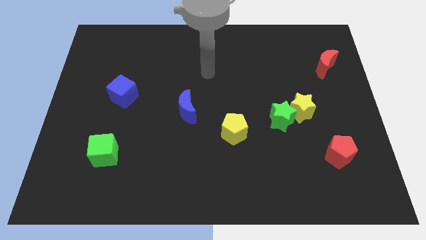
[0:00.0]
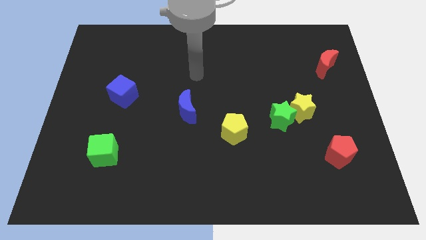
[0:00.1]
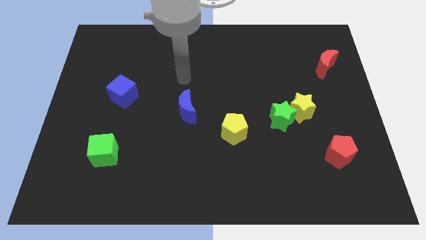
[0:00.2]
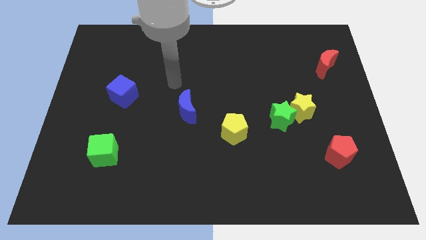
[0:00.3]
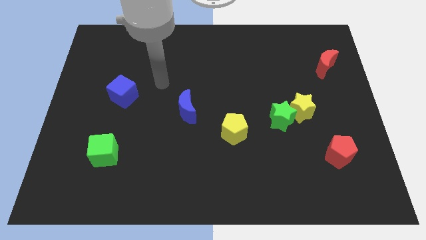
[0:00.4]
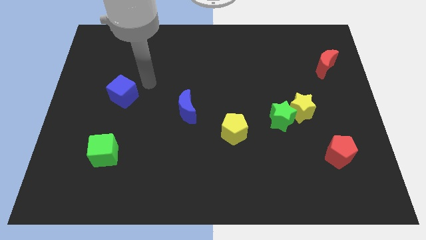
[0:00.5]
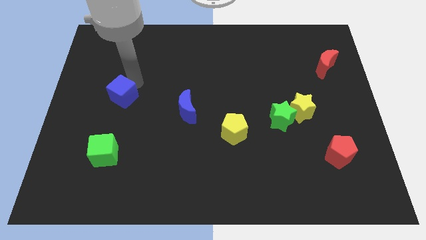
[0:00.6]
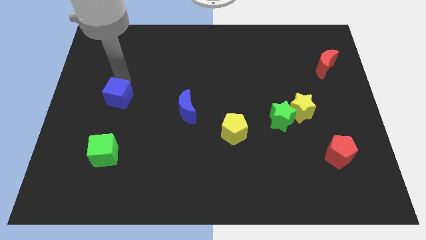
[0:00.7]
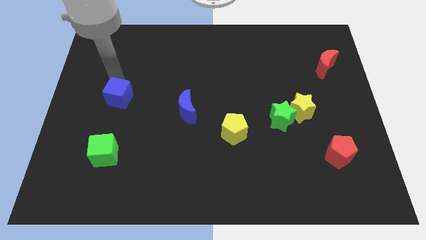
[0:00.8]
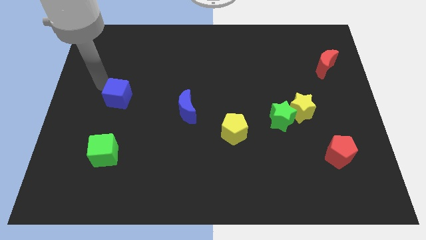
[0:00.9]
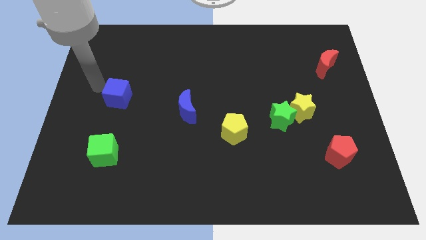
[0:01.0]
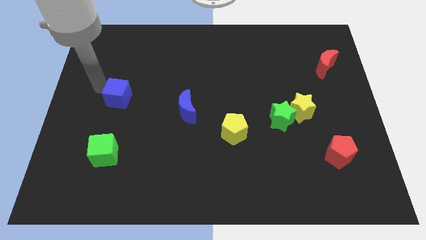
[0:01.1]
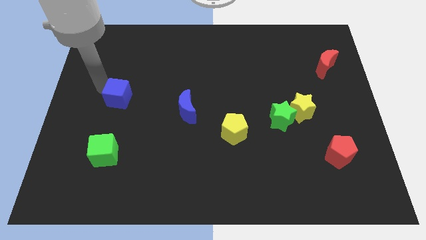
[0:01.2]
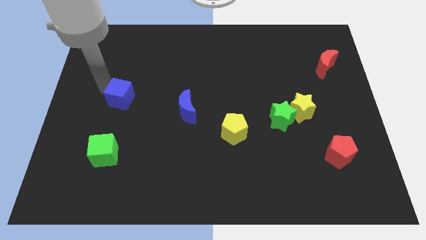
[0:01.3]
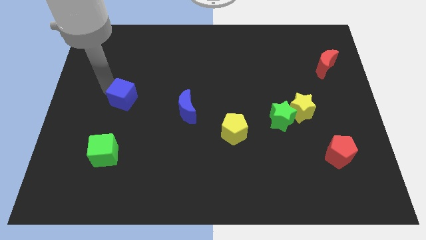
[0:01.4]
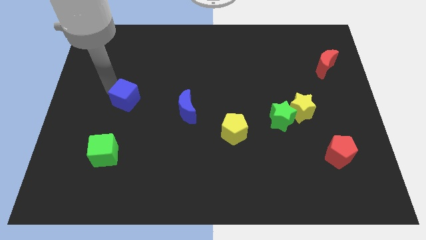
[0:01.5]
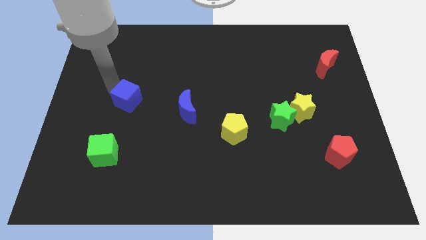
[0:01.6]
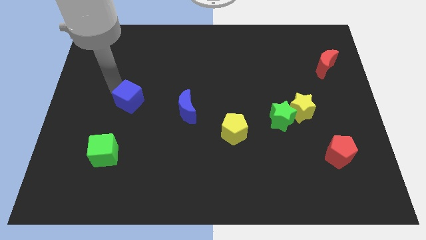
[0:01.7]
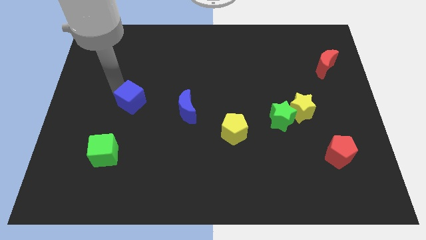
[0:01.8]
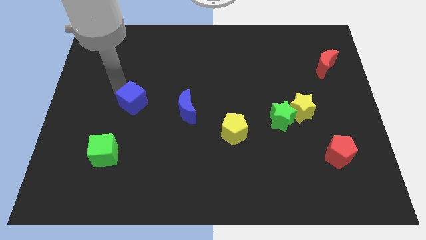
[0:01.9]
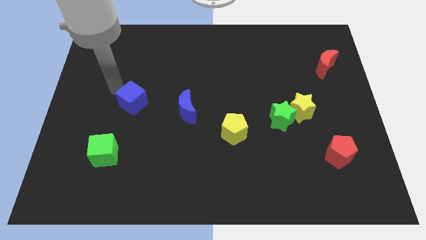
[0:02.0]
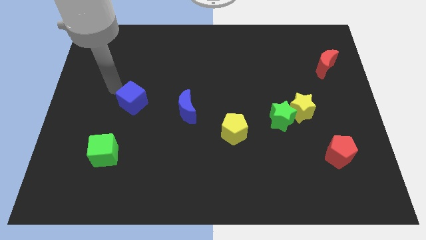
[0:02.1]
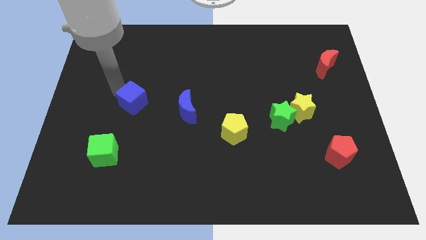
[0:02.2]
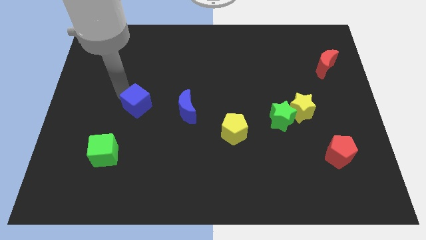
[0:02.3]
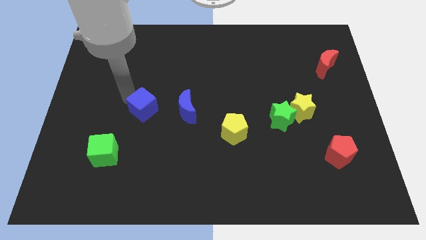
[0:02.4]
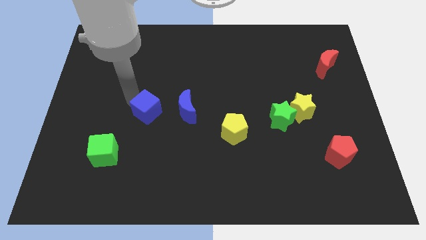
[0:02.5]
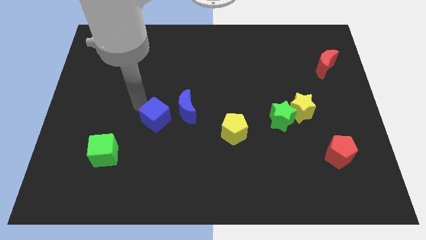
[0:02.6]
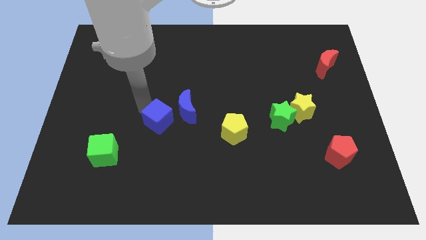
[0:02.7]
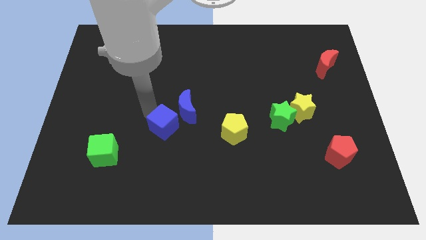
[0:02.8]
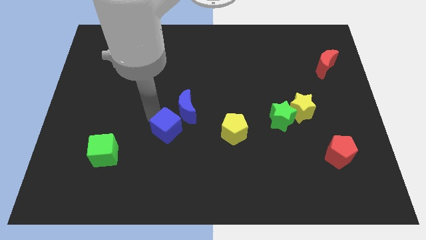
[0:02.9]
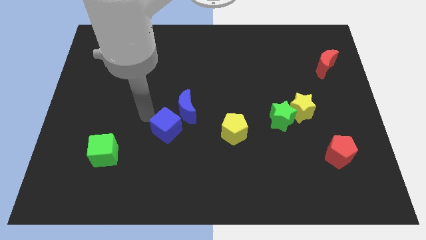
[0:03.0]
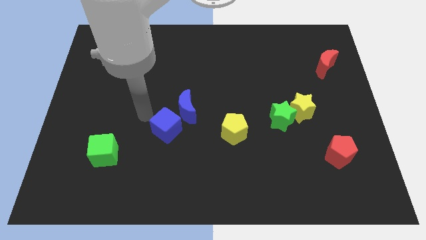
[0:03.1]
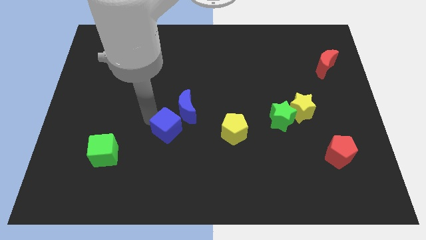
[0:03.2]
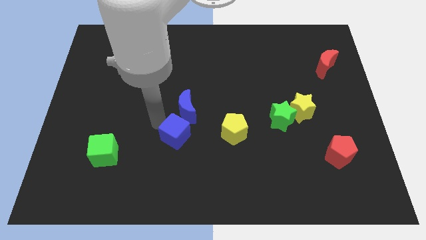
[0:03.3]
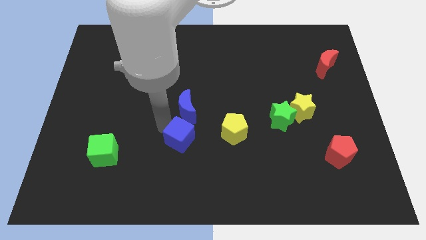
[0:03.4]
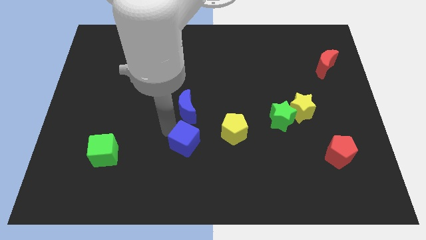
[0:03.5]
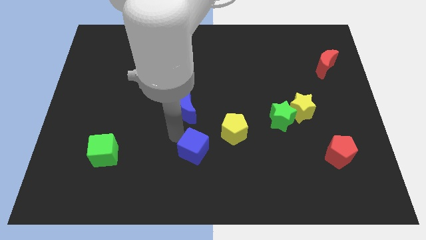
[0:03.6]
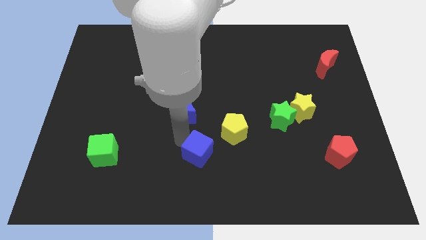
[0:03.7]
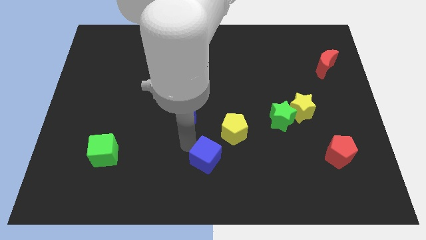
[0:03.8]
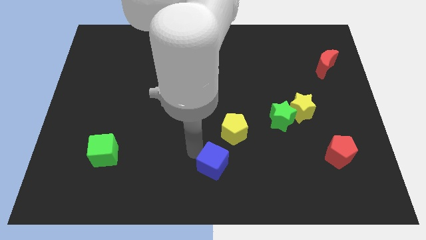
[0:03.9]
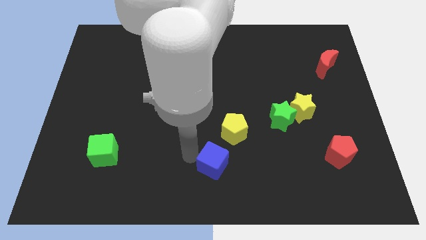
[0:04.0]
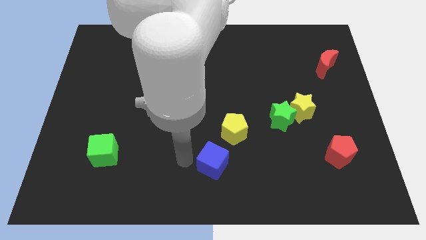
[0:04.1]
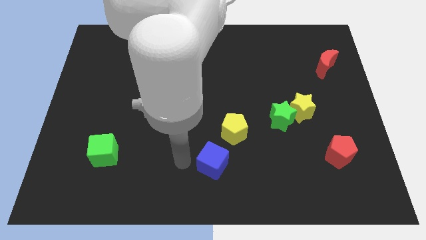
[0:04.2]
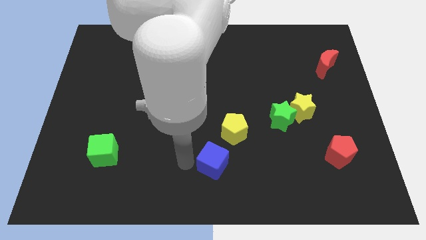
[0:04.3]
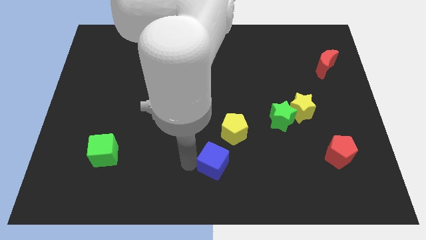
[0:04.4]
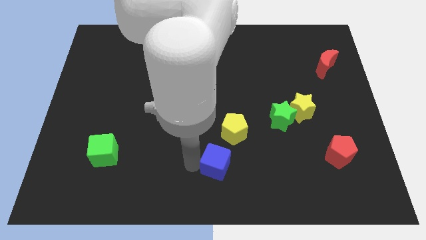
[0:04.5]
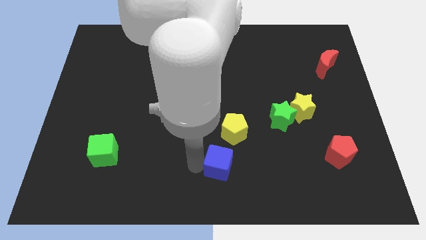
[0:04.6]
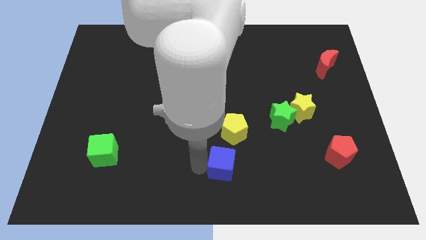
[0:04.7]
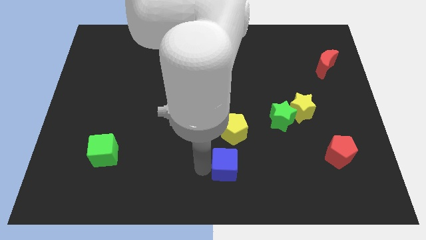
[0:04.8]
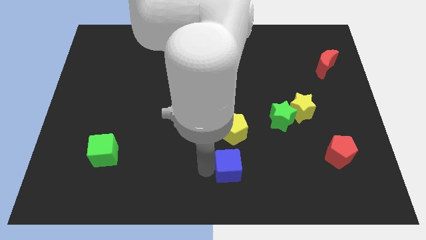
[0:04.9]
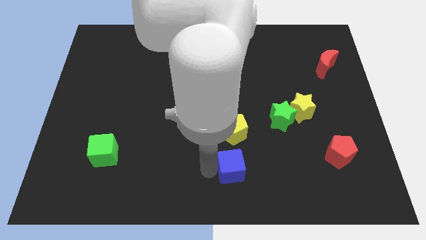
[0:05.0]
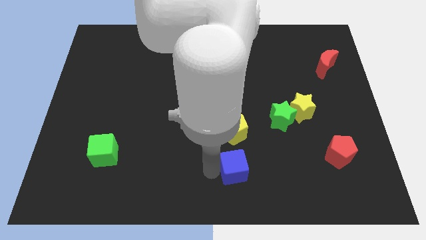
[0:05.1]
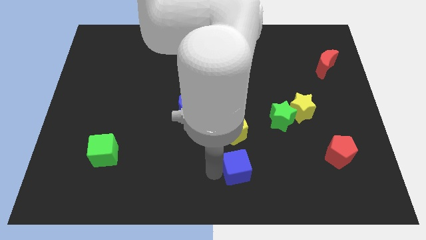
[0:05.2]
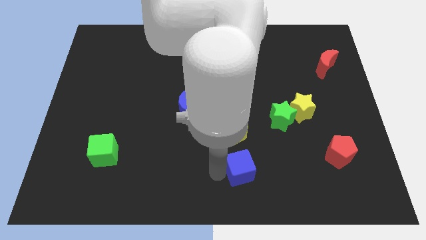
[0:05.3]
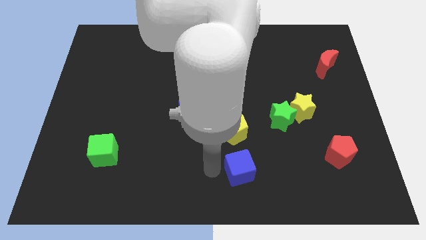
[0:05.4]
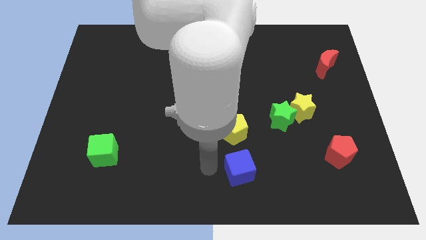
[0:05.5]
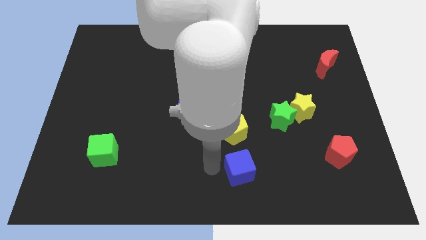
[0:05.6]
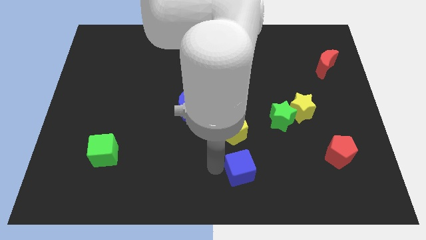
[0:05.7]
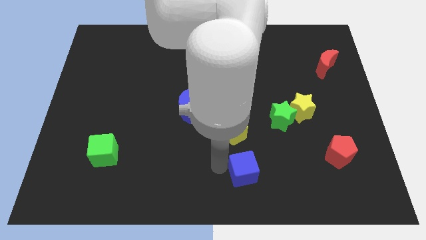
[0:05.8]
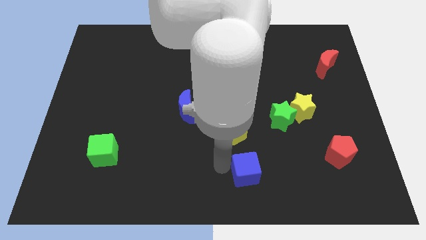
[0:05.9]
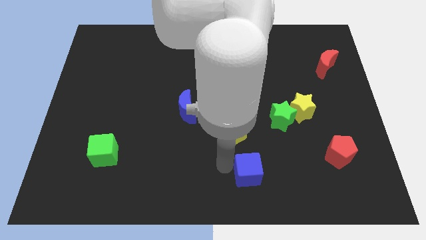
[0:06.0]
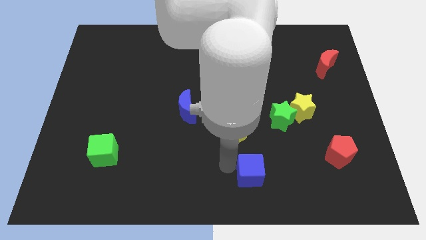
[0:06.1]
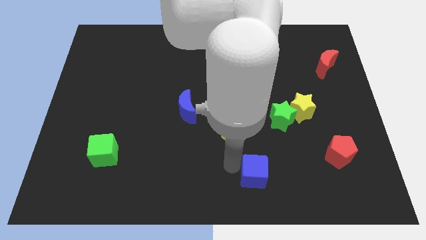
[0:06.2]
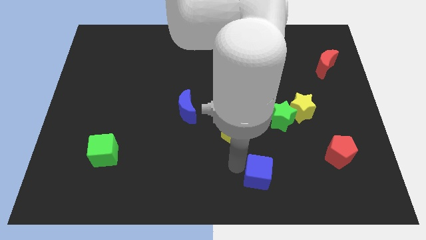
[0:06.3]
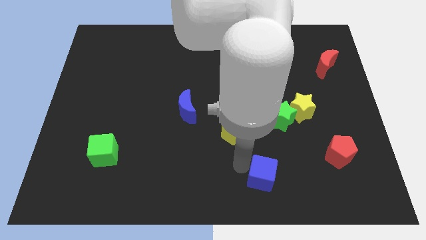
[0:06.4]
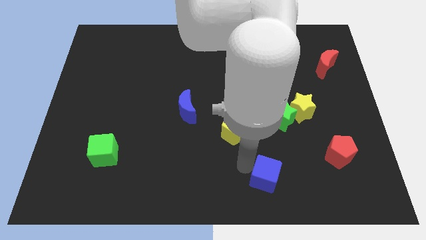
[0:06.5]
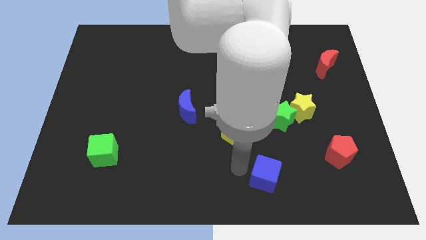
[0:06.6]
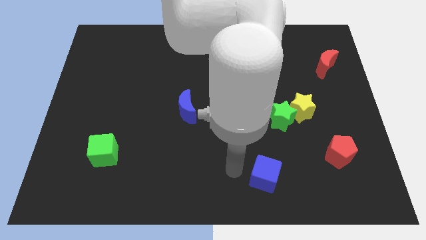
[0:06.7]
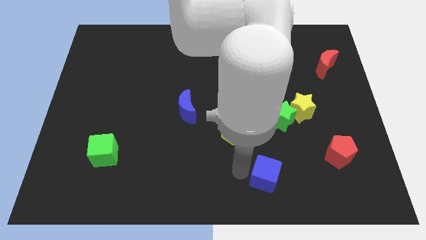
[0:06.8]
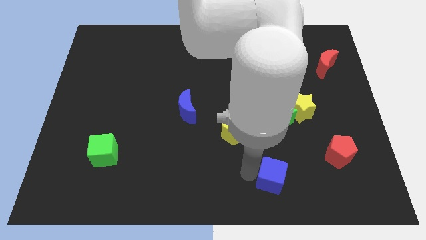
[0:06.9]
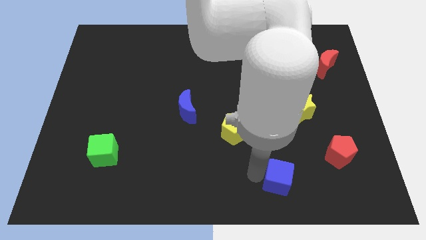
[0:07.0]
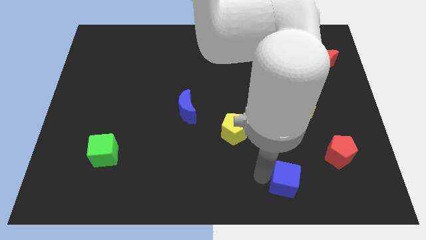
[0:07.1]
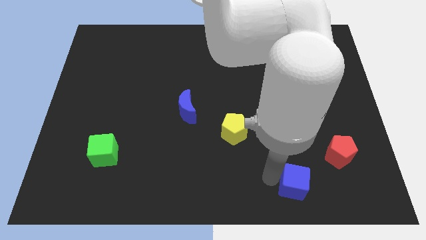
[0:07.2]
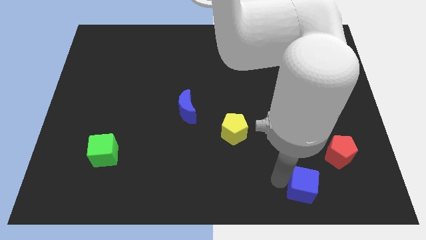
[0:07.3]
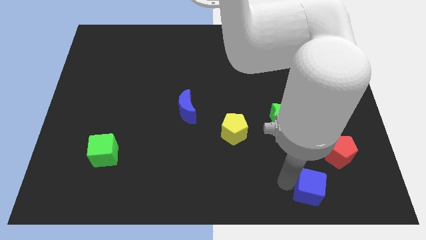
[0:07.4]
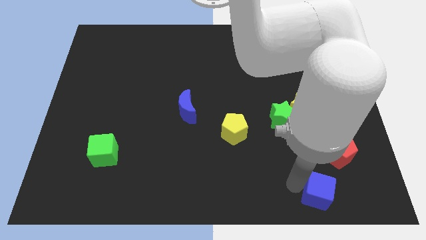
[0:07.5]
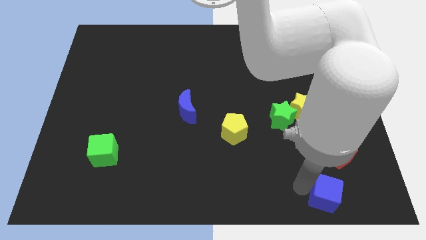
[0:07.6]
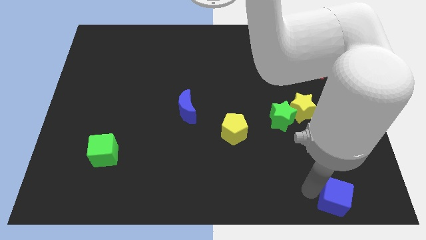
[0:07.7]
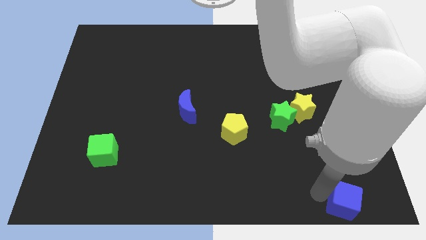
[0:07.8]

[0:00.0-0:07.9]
slide the blue cube to the lower right corner

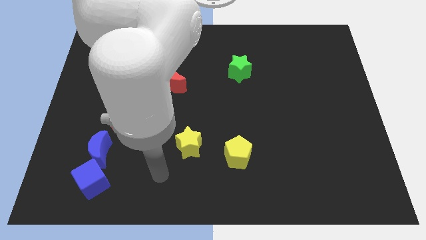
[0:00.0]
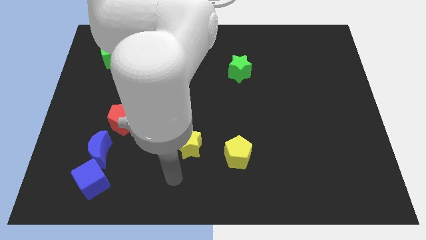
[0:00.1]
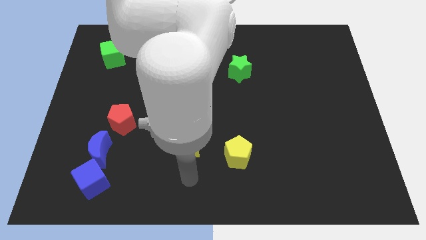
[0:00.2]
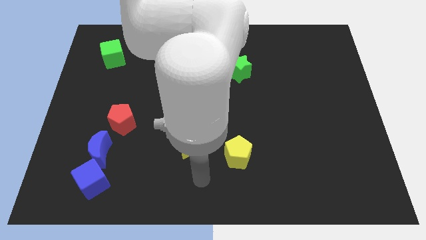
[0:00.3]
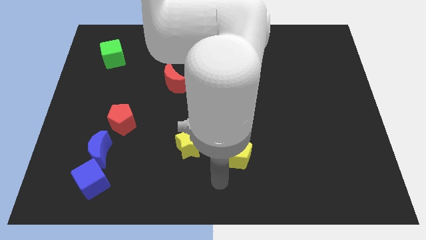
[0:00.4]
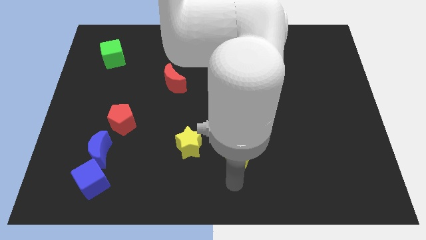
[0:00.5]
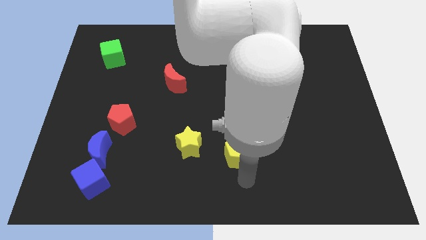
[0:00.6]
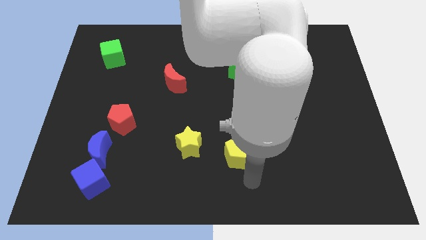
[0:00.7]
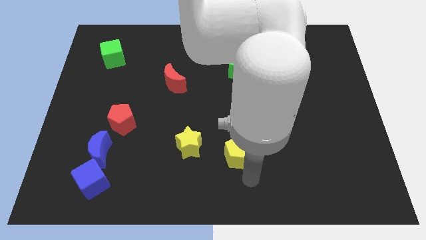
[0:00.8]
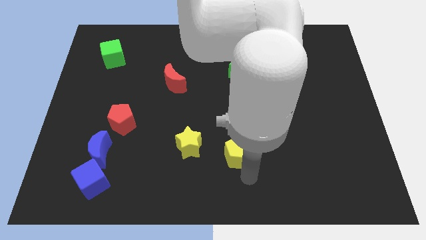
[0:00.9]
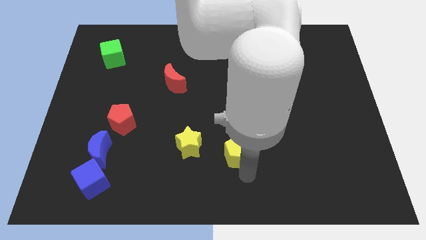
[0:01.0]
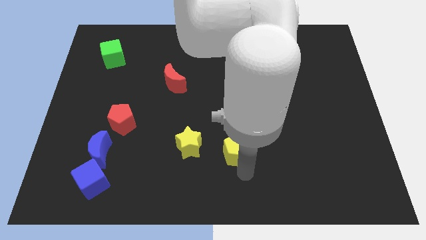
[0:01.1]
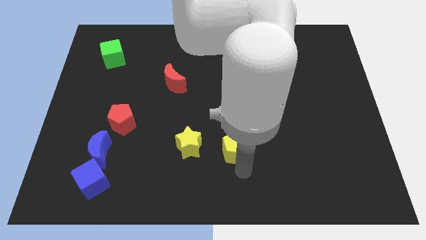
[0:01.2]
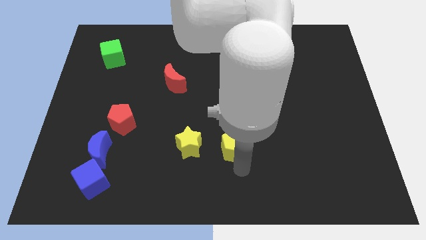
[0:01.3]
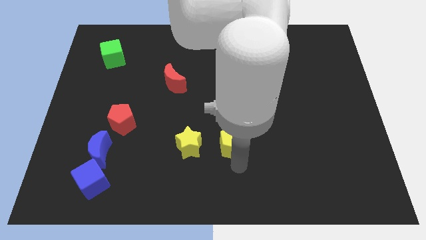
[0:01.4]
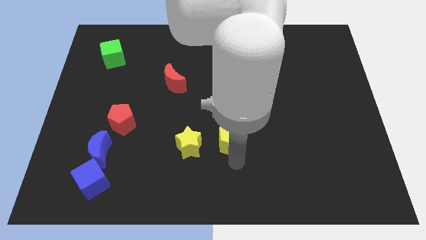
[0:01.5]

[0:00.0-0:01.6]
push the yellow pentagon to the middle of the board
